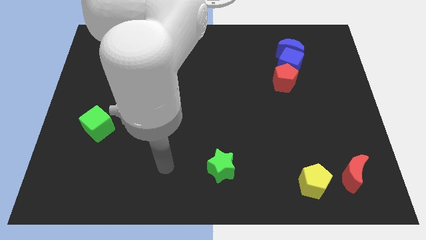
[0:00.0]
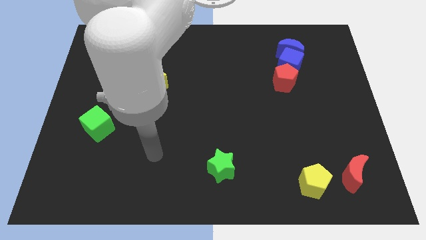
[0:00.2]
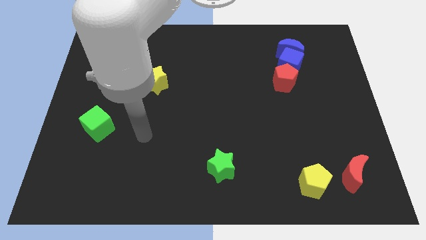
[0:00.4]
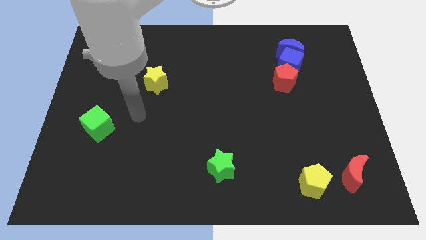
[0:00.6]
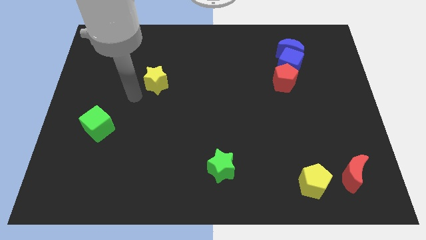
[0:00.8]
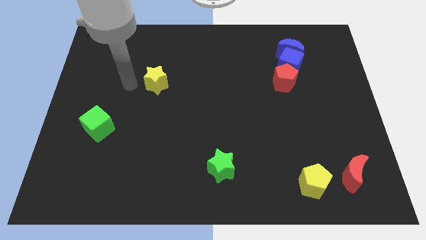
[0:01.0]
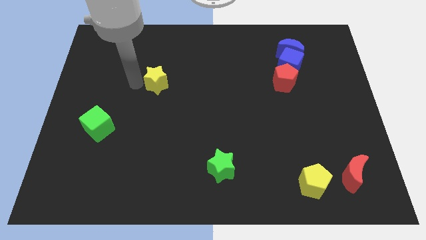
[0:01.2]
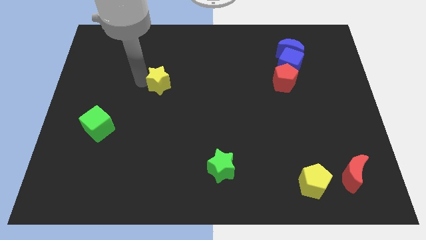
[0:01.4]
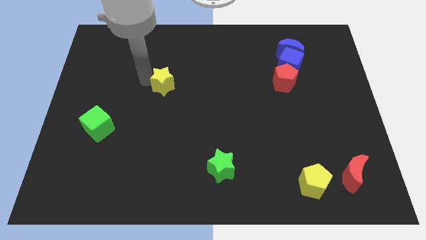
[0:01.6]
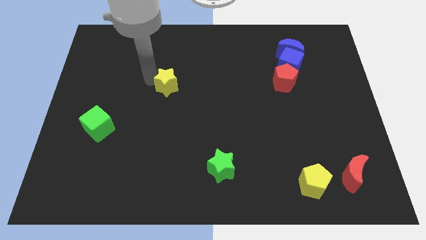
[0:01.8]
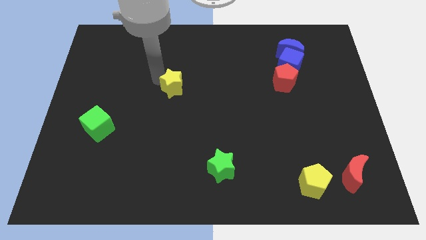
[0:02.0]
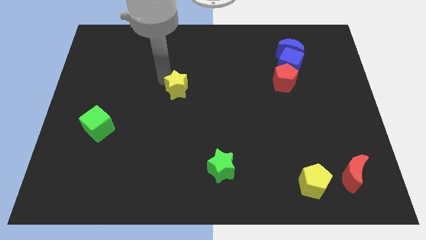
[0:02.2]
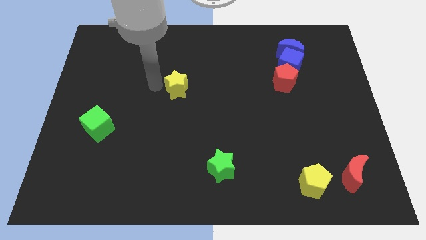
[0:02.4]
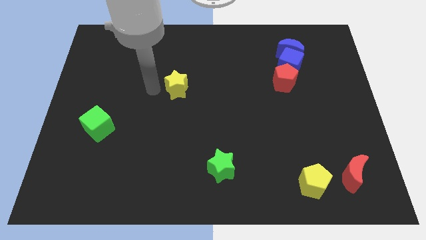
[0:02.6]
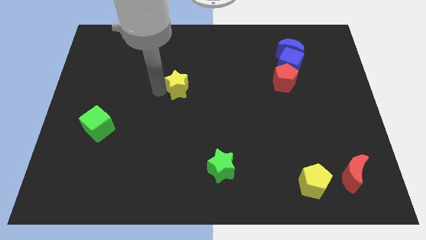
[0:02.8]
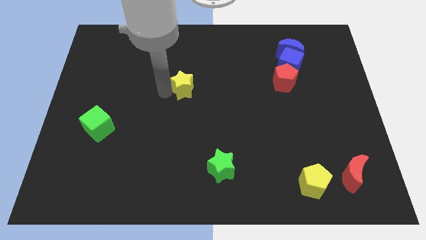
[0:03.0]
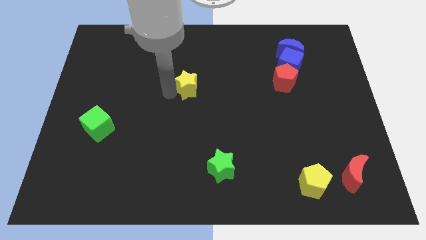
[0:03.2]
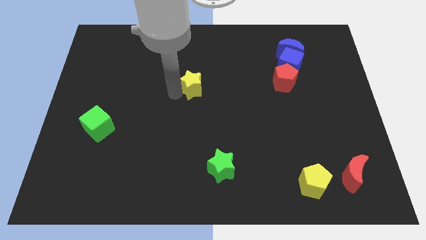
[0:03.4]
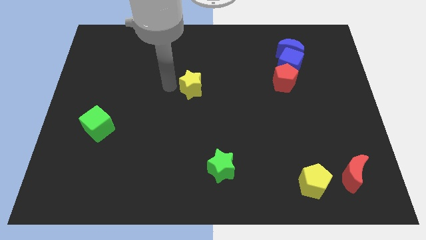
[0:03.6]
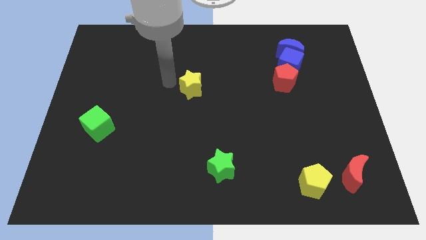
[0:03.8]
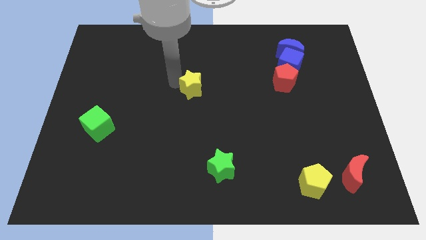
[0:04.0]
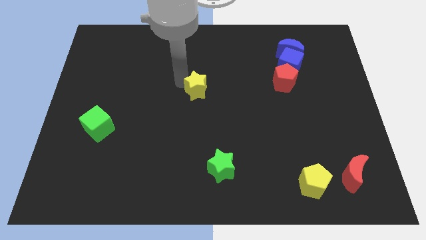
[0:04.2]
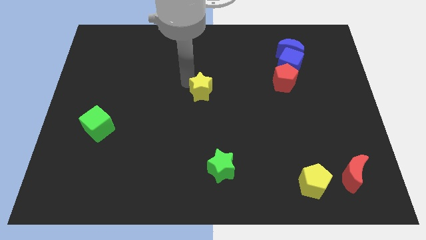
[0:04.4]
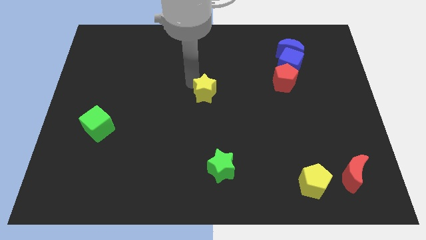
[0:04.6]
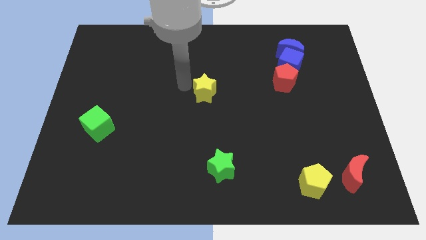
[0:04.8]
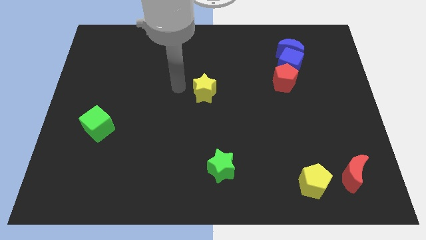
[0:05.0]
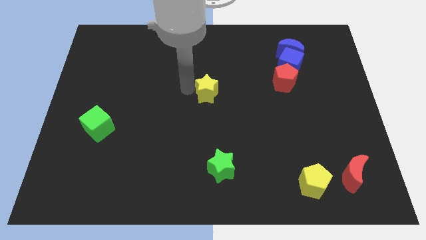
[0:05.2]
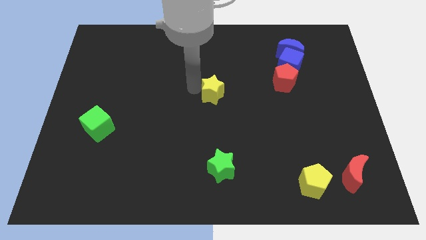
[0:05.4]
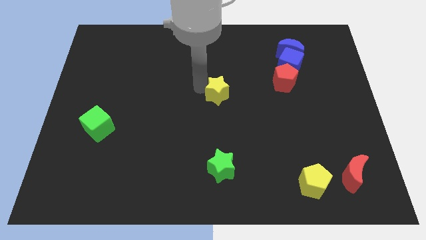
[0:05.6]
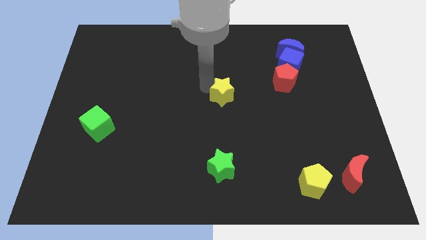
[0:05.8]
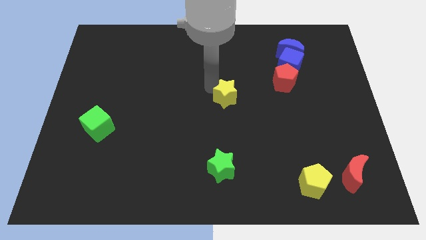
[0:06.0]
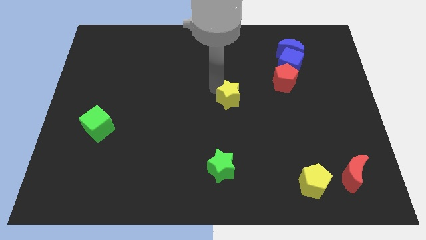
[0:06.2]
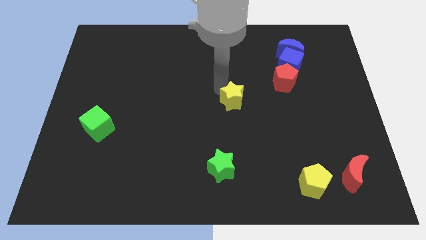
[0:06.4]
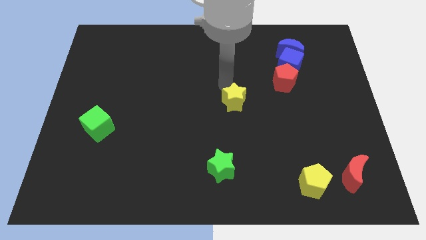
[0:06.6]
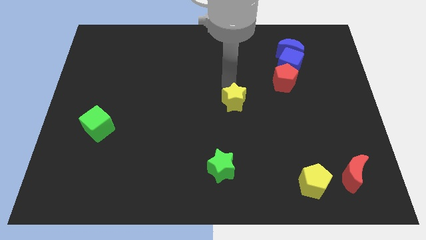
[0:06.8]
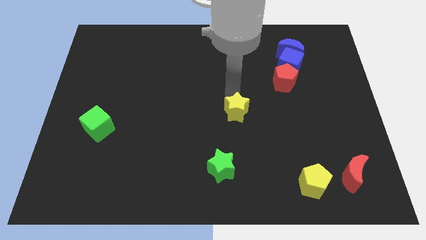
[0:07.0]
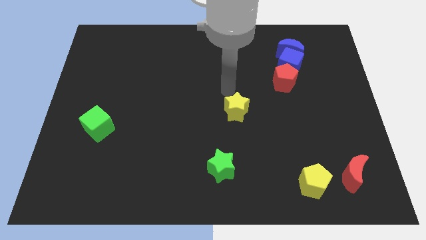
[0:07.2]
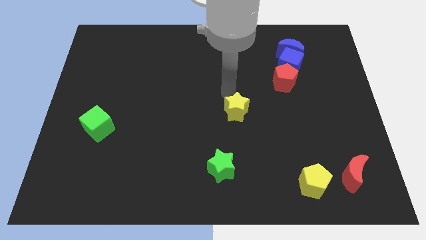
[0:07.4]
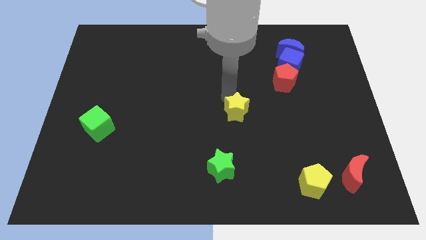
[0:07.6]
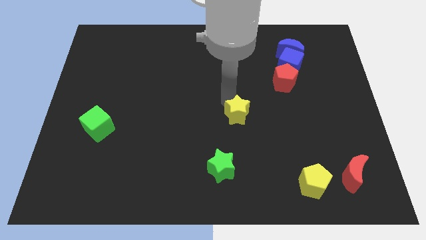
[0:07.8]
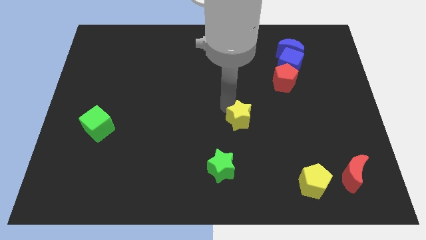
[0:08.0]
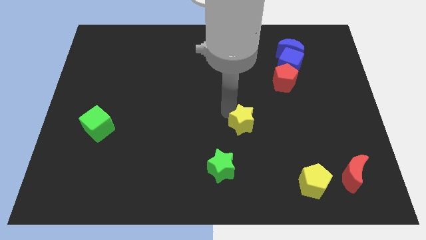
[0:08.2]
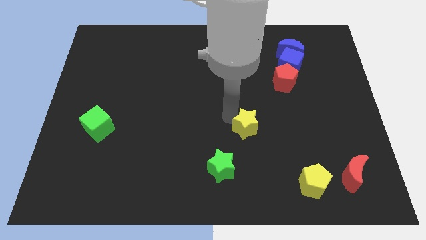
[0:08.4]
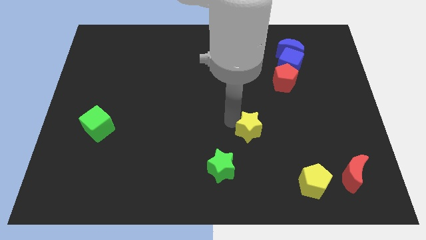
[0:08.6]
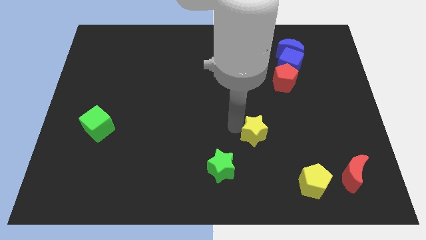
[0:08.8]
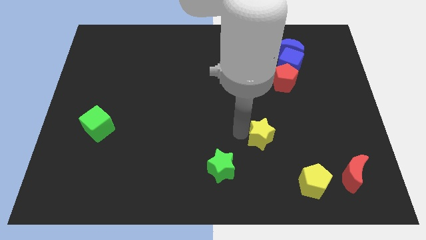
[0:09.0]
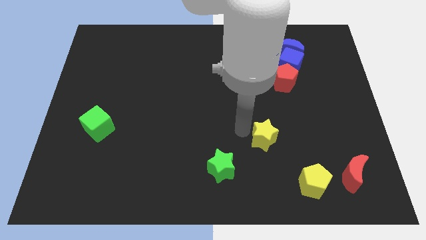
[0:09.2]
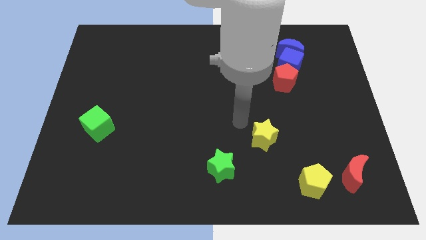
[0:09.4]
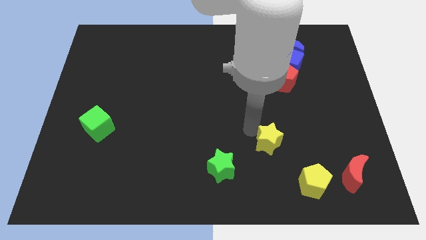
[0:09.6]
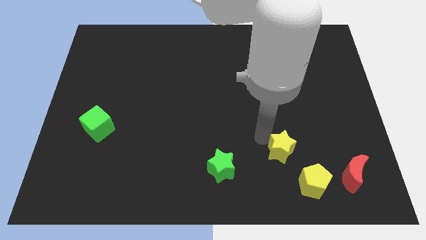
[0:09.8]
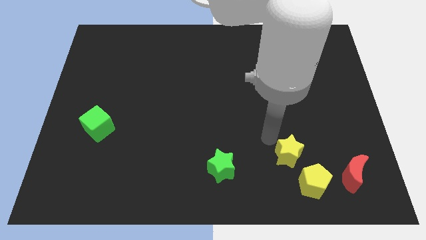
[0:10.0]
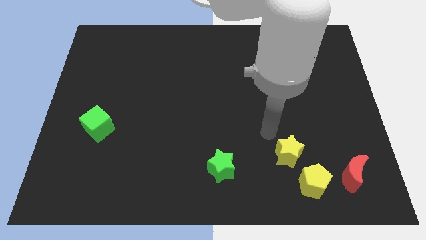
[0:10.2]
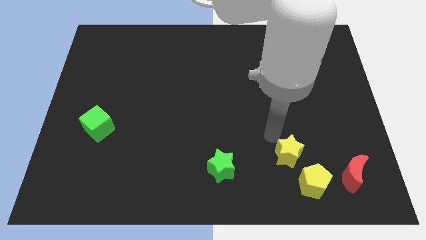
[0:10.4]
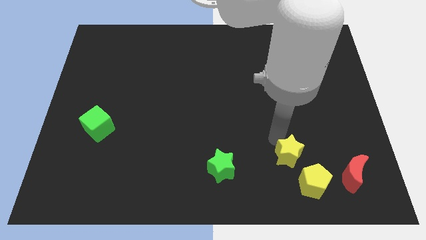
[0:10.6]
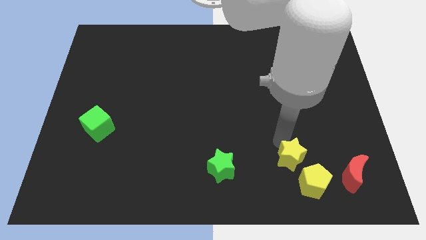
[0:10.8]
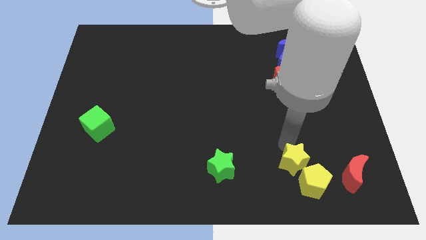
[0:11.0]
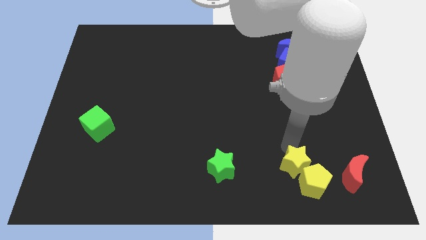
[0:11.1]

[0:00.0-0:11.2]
move the yellow star close to the yellow pentagon
